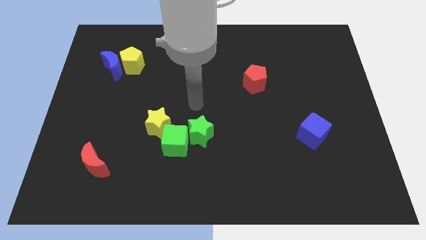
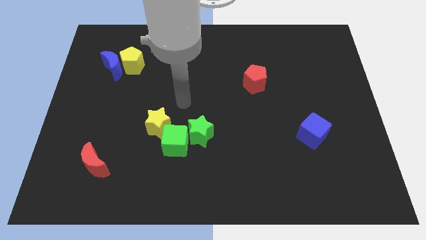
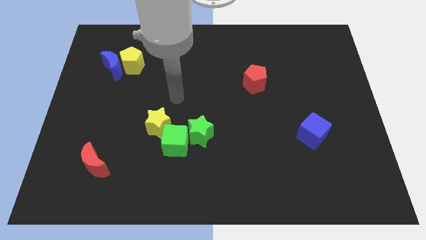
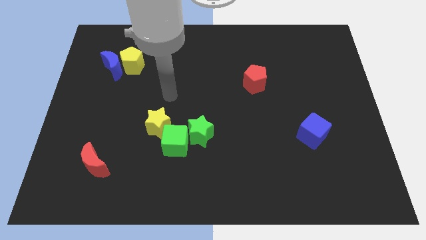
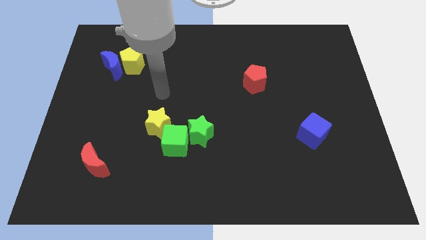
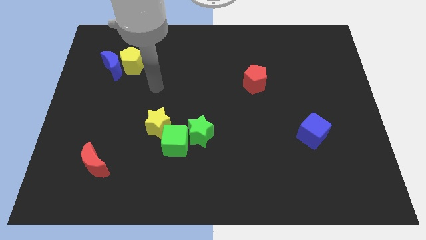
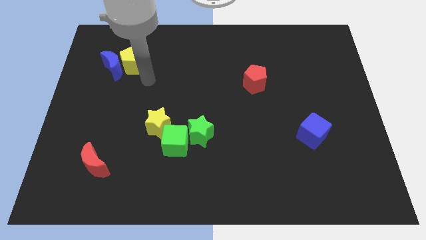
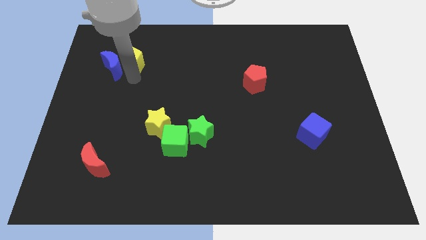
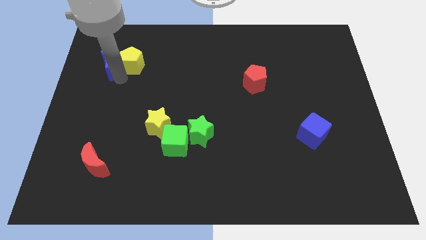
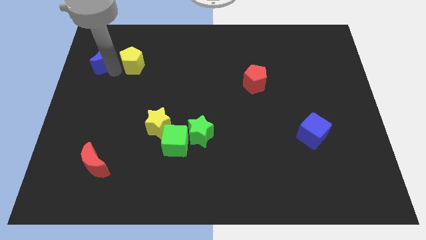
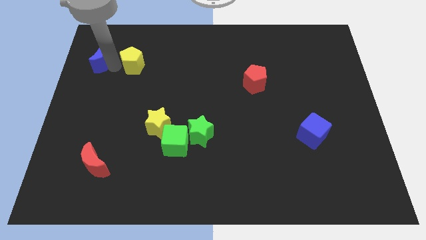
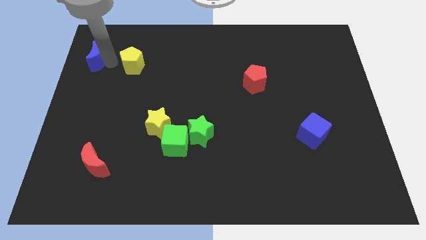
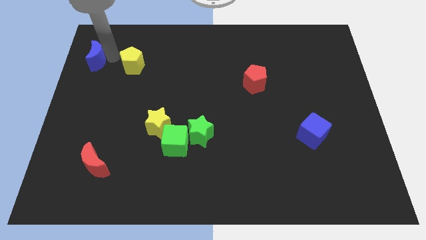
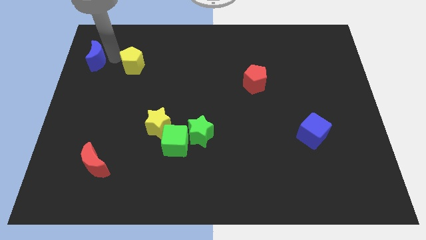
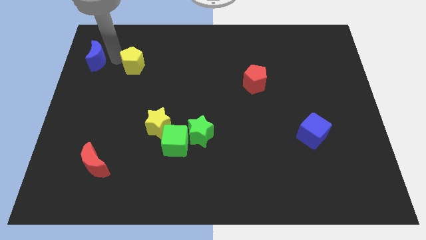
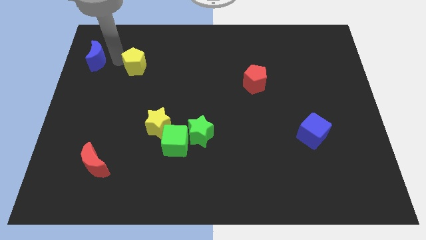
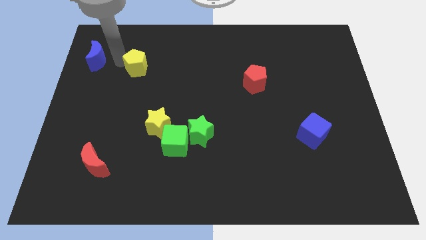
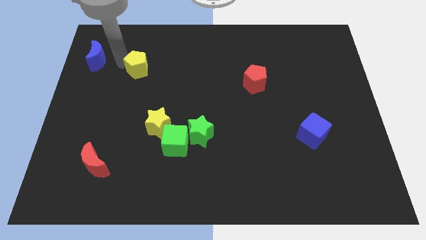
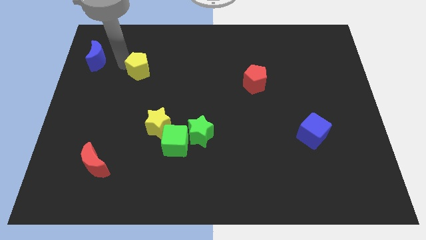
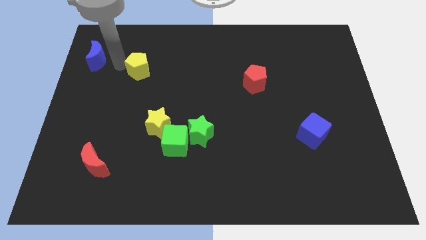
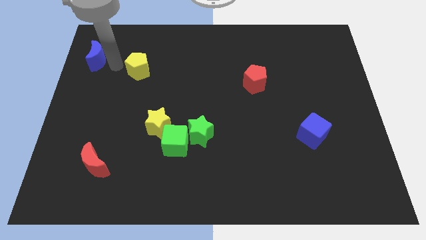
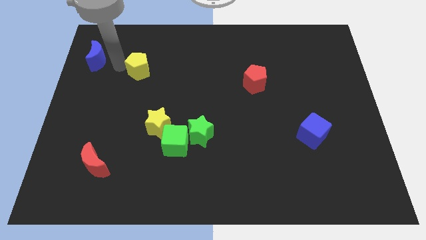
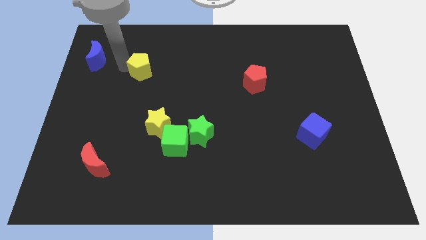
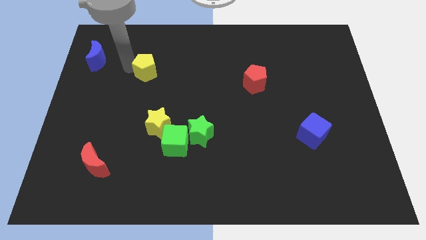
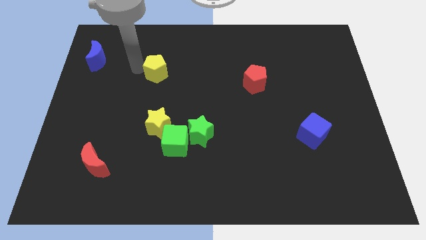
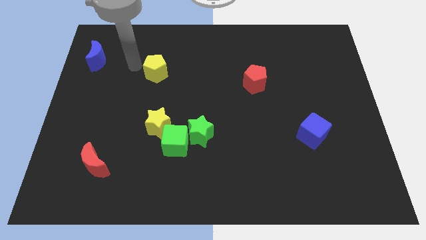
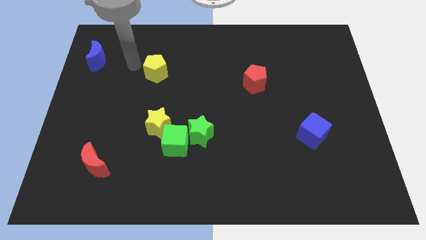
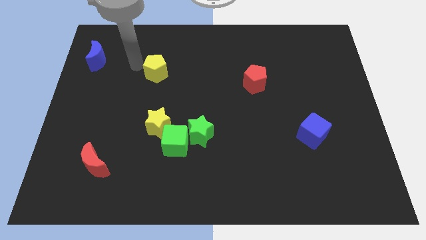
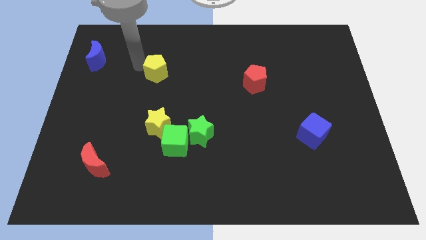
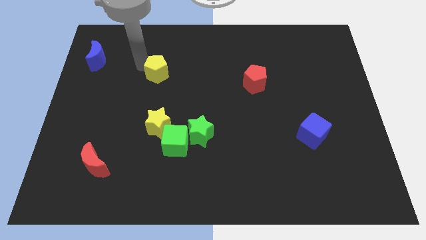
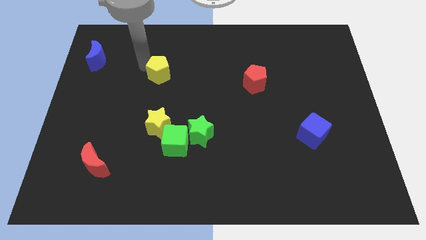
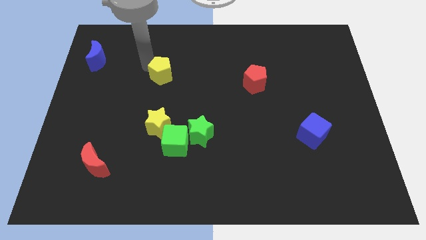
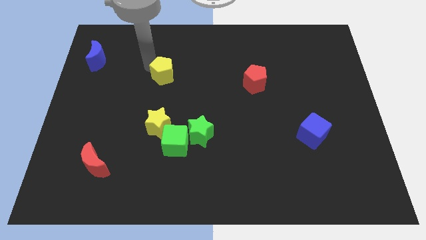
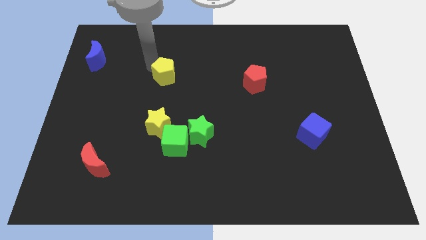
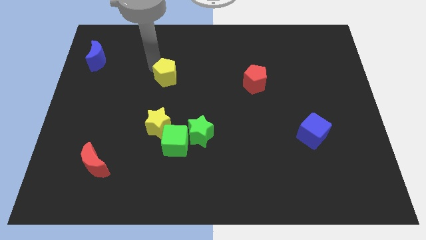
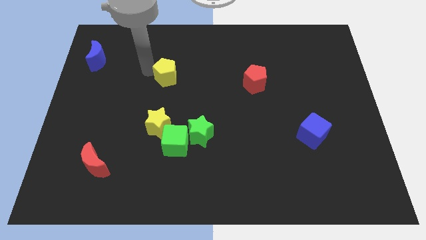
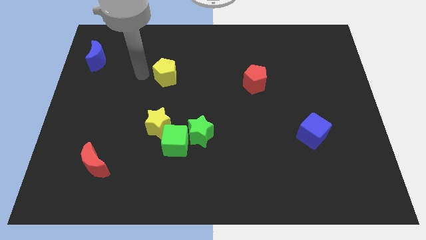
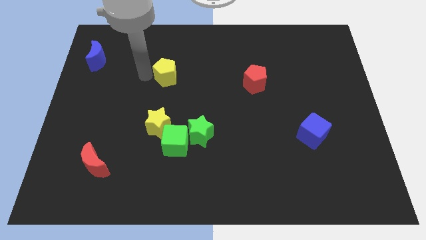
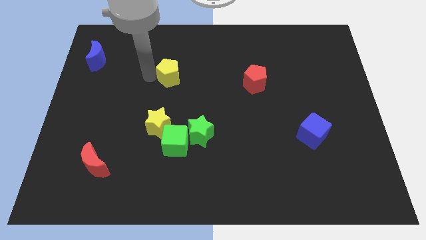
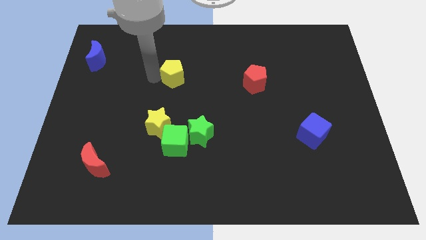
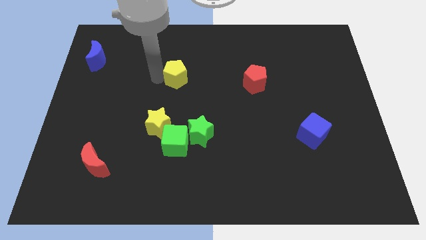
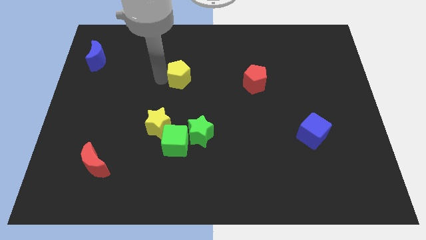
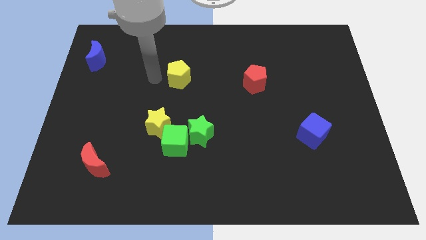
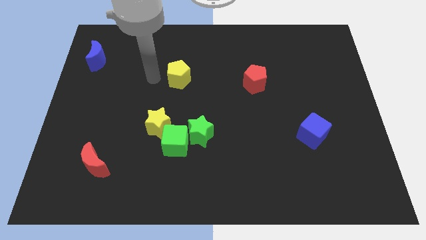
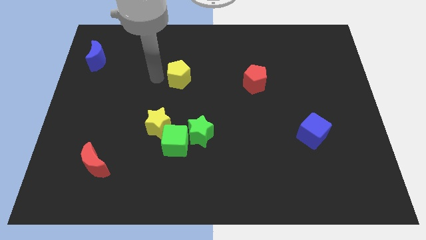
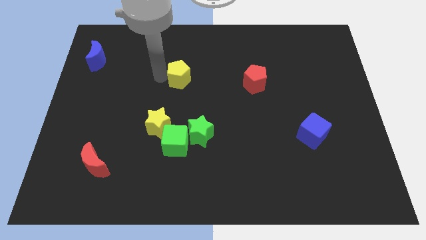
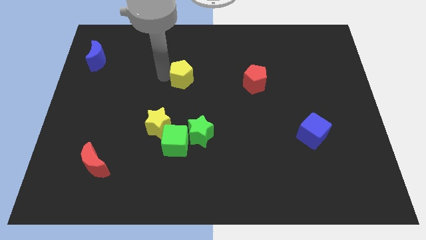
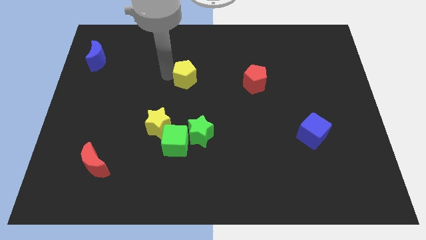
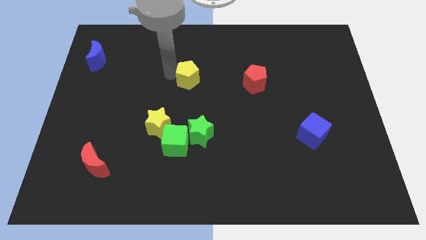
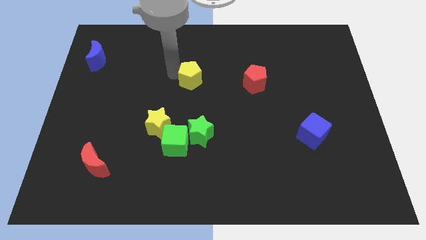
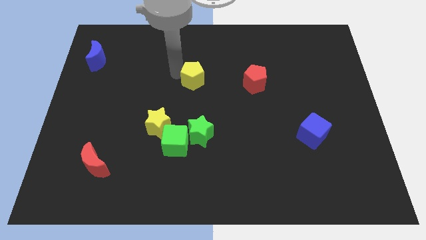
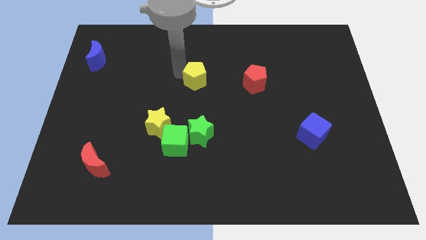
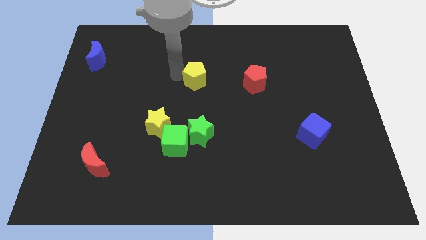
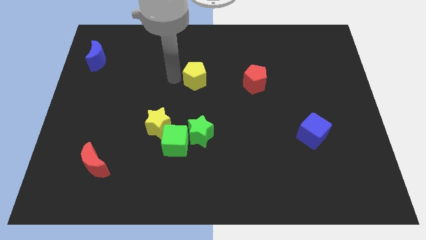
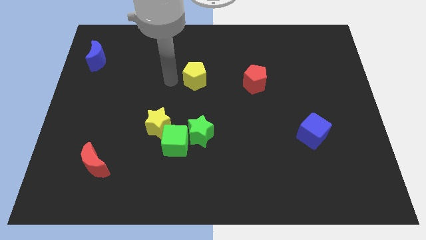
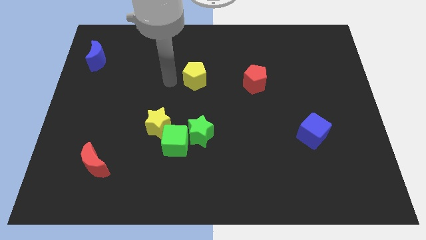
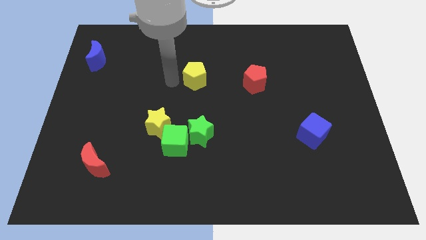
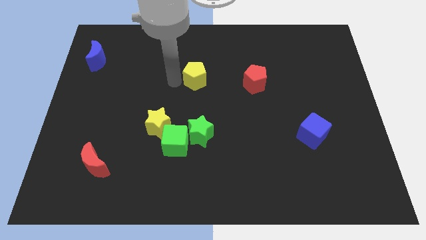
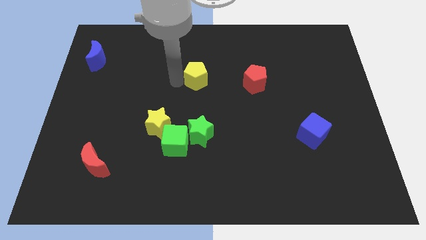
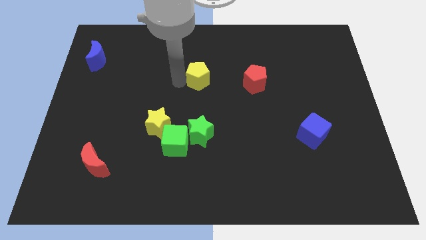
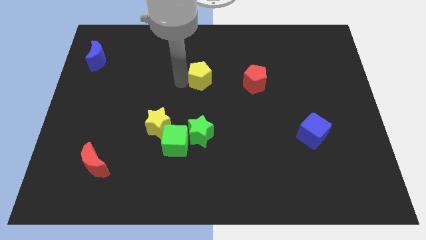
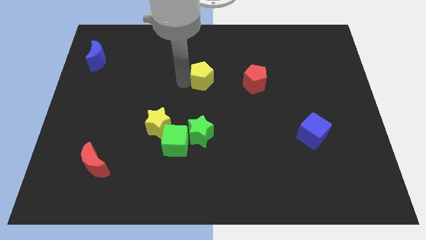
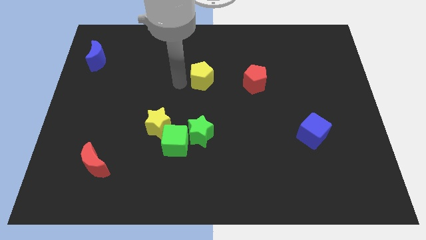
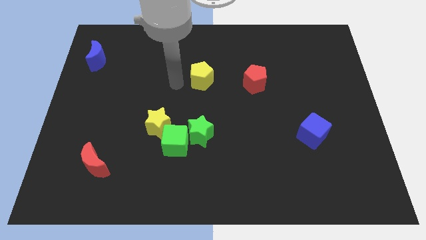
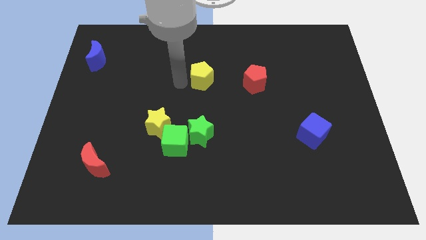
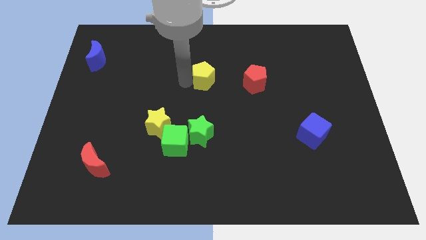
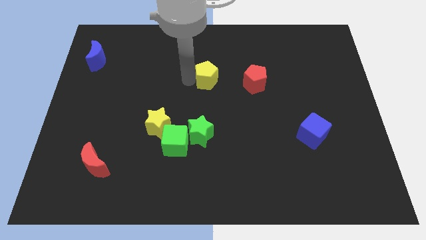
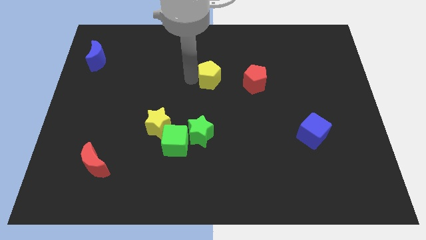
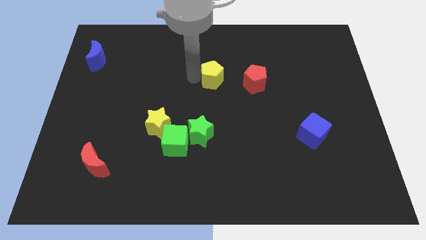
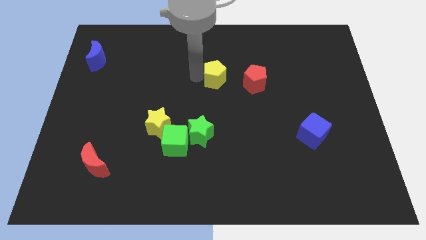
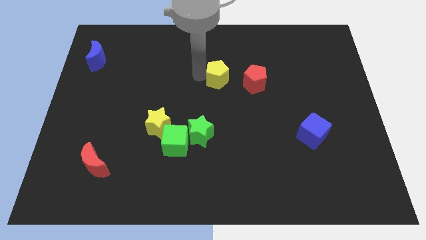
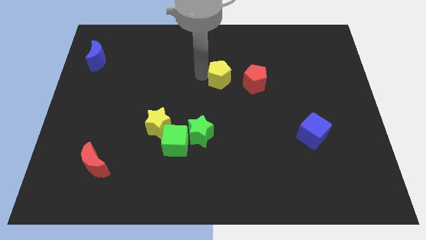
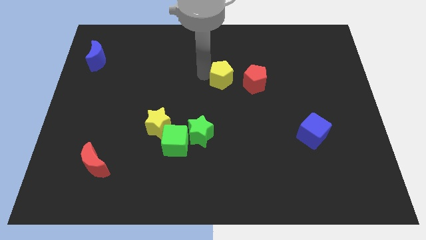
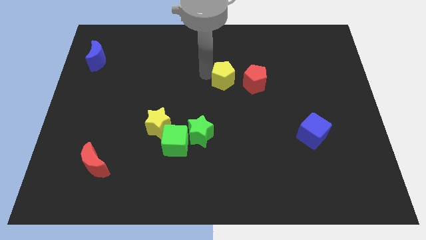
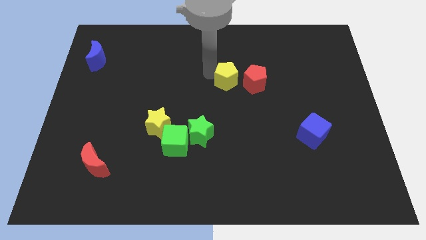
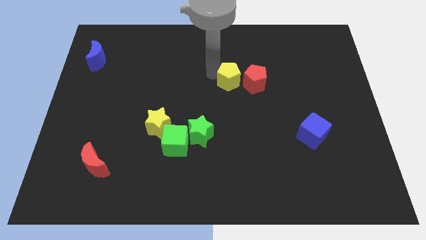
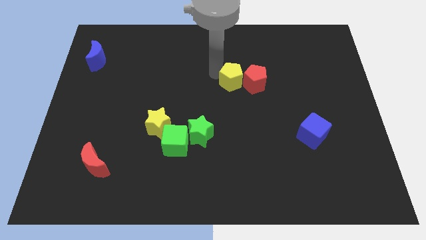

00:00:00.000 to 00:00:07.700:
put the yellow pentagon close to the red pentagon
